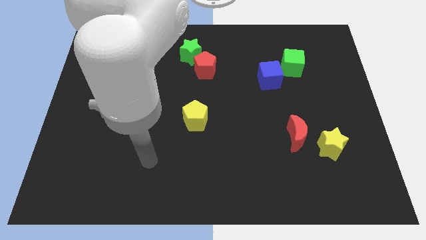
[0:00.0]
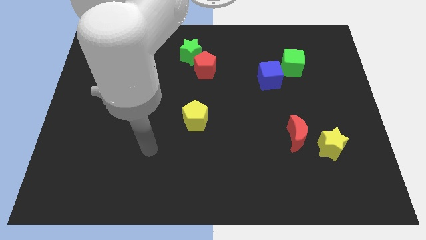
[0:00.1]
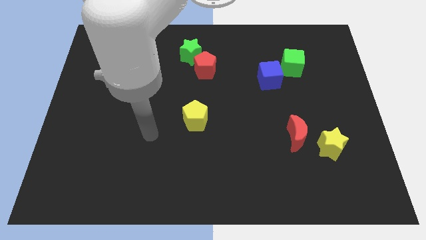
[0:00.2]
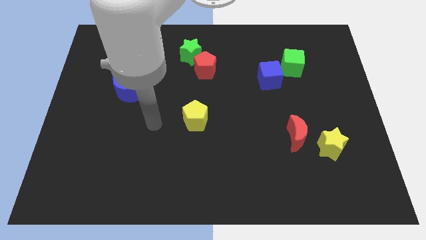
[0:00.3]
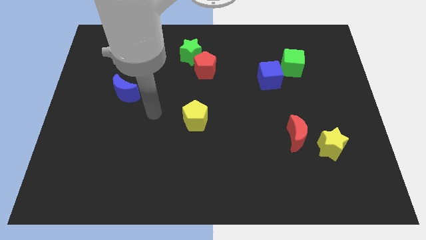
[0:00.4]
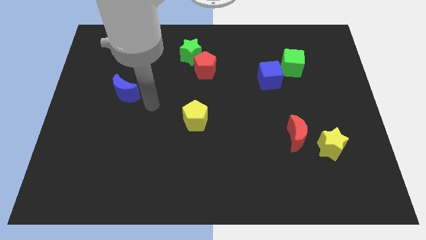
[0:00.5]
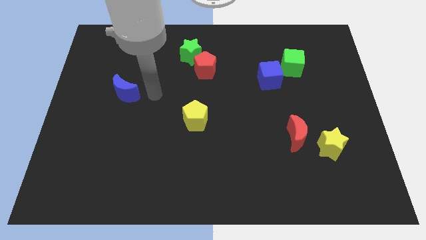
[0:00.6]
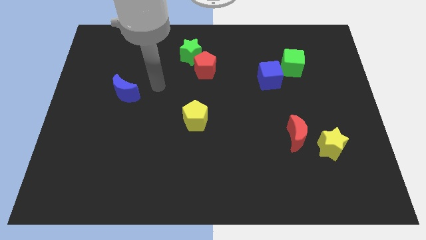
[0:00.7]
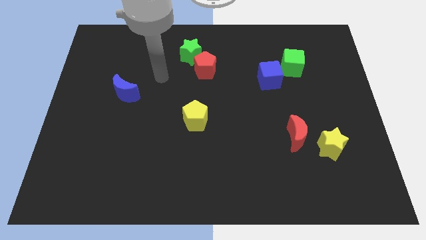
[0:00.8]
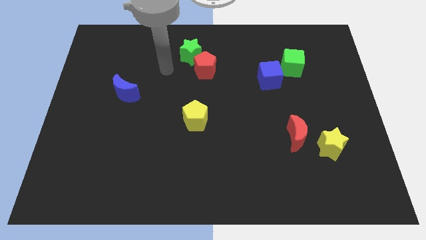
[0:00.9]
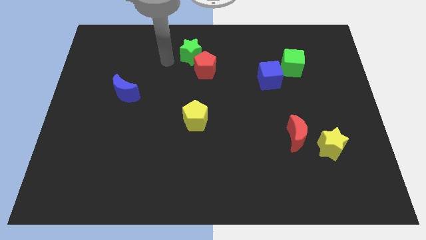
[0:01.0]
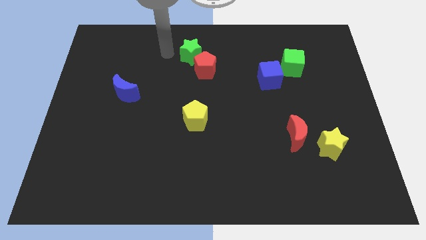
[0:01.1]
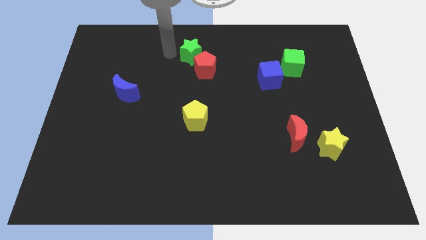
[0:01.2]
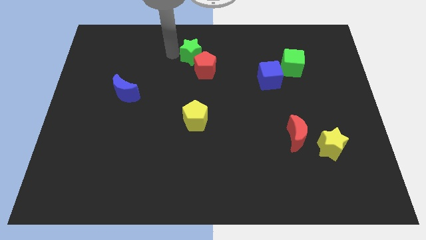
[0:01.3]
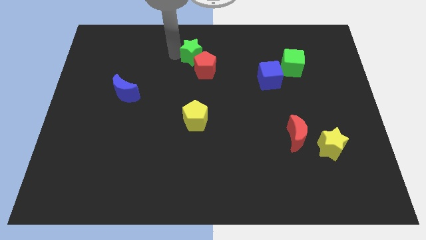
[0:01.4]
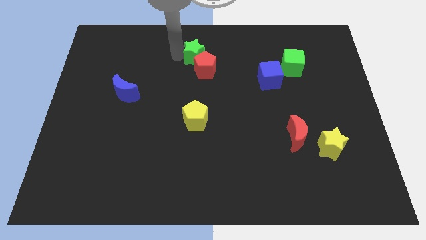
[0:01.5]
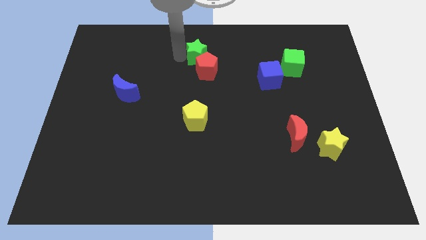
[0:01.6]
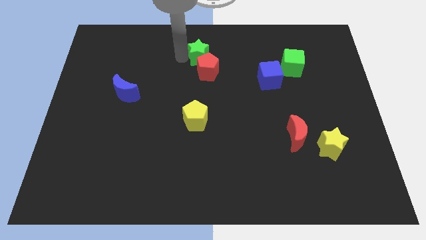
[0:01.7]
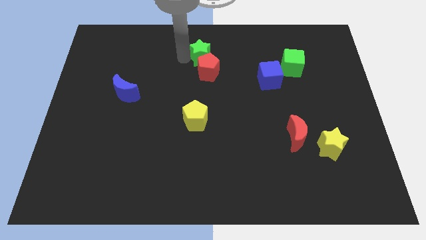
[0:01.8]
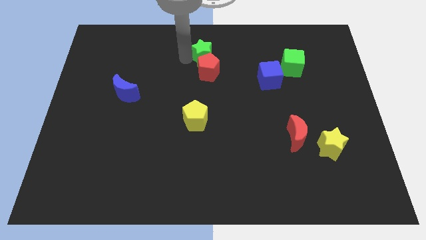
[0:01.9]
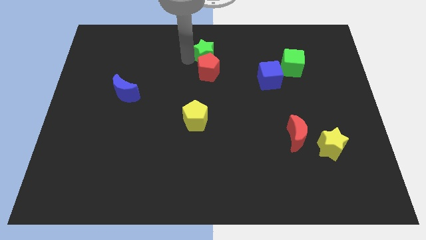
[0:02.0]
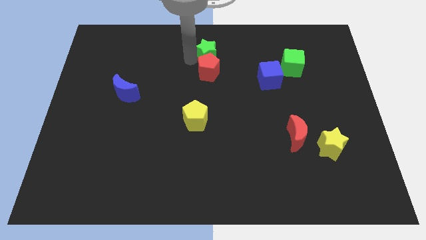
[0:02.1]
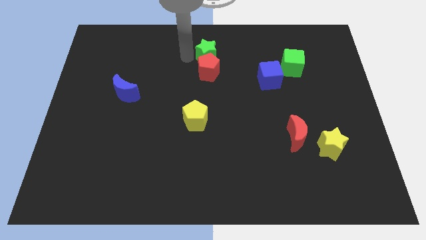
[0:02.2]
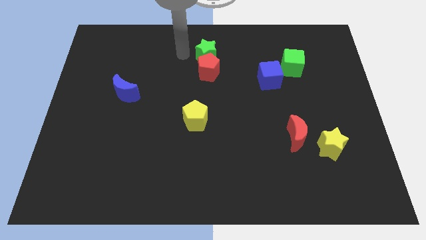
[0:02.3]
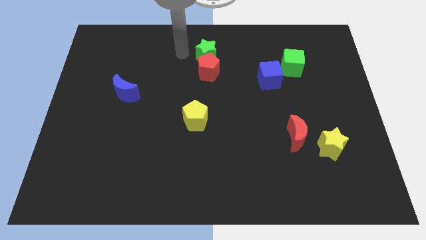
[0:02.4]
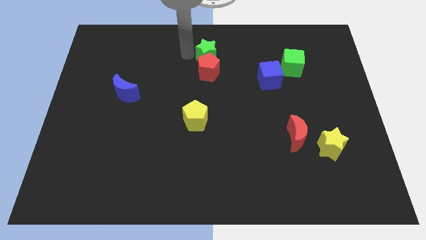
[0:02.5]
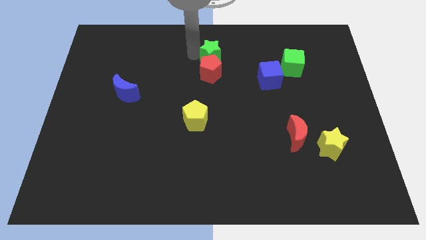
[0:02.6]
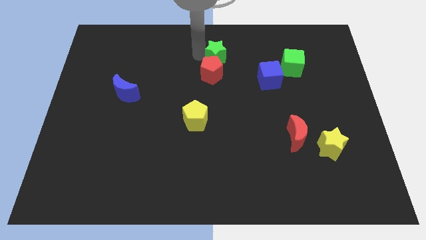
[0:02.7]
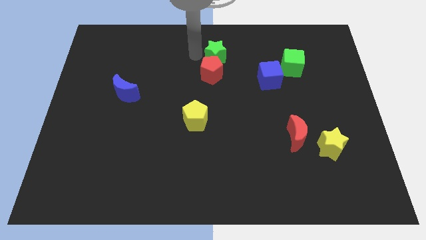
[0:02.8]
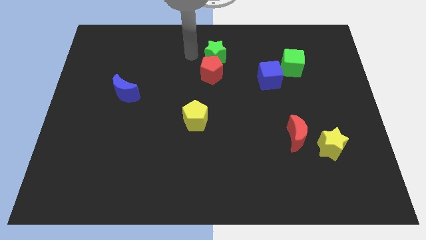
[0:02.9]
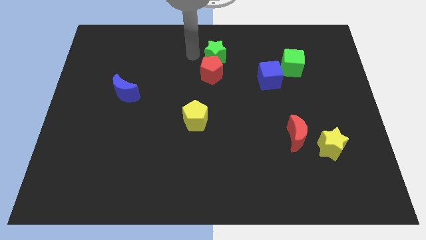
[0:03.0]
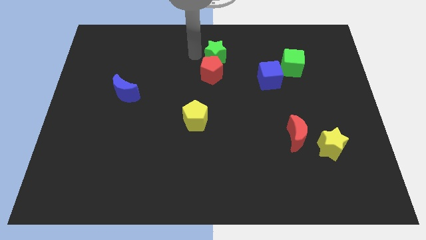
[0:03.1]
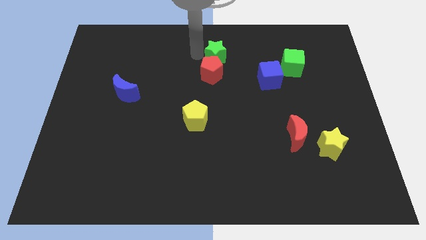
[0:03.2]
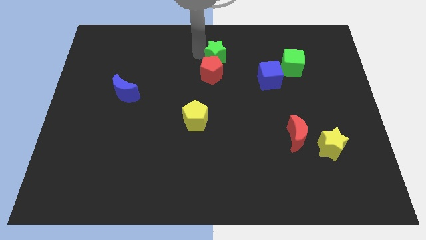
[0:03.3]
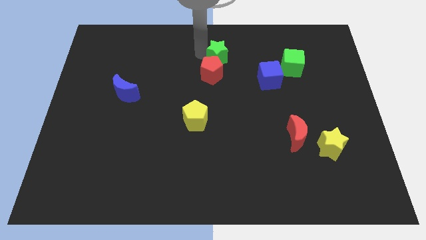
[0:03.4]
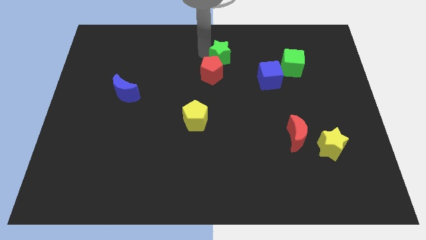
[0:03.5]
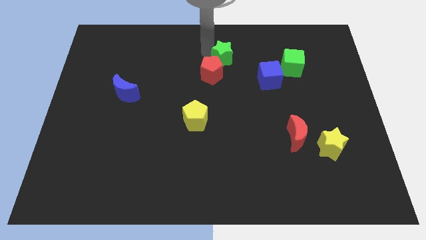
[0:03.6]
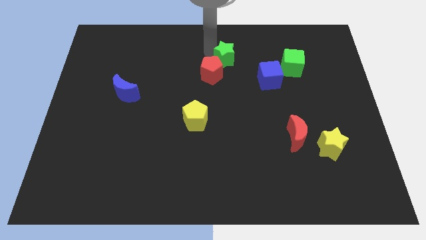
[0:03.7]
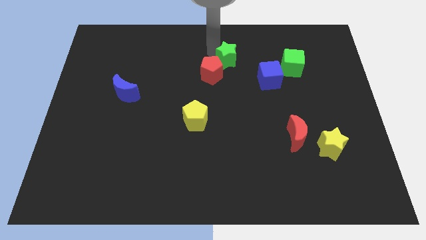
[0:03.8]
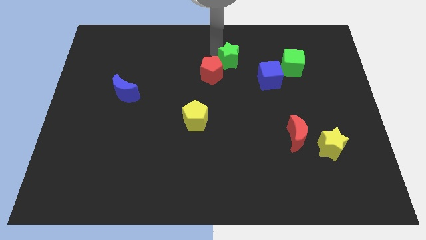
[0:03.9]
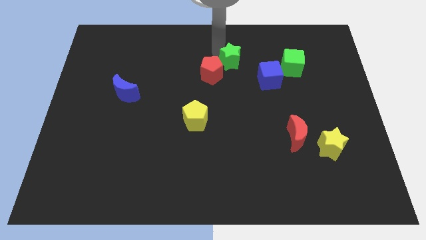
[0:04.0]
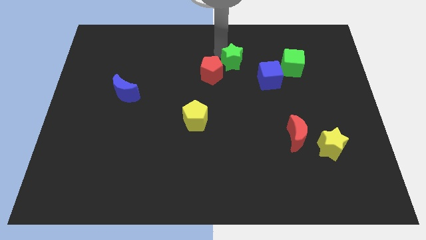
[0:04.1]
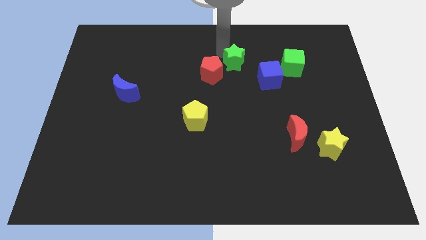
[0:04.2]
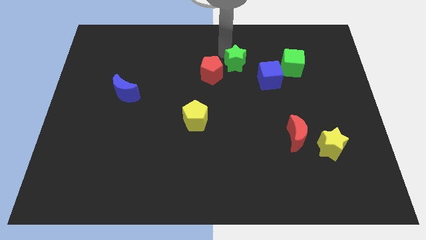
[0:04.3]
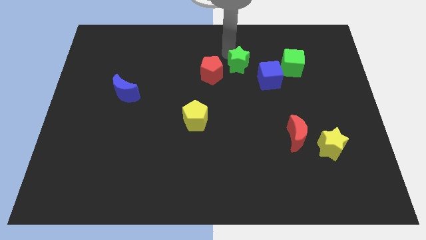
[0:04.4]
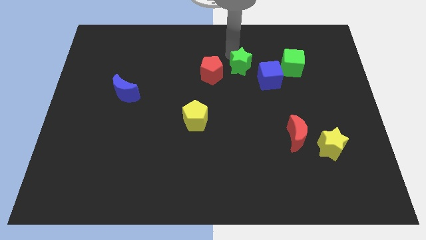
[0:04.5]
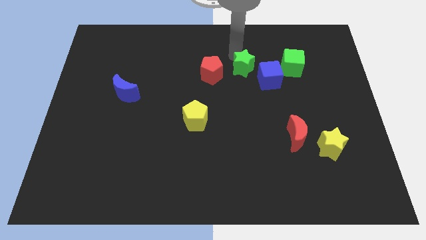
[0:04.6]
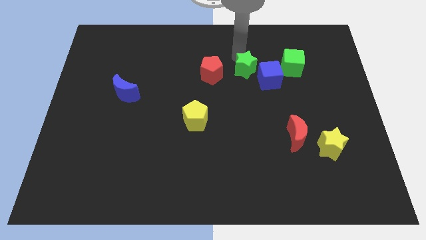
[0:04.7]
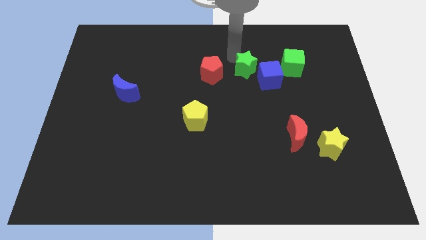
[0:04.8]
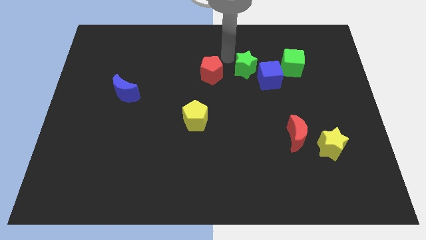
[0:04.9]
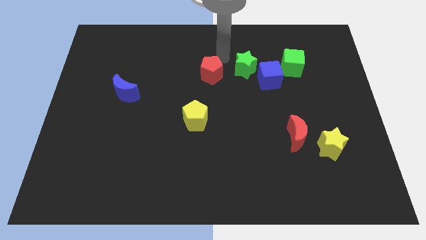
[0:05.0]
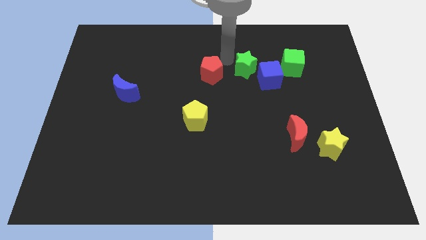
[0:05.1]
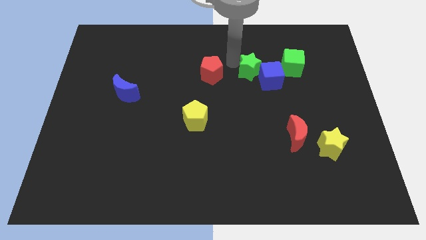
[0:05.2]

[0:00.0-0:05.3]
push the green star towards the blue cube

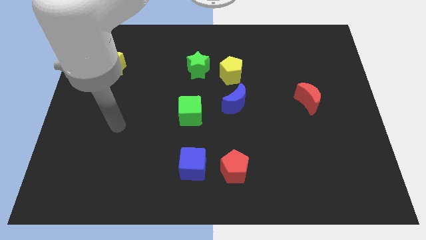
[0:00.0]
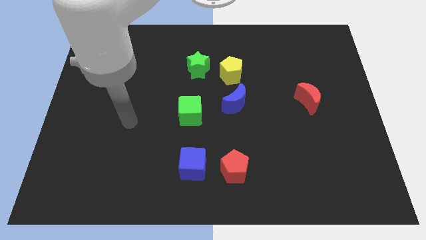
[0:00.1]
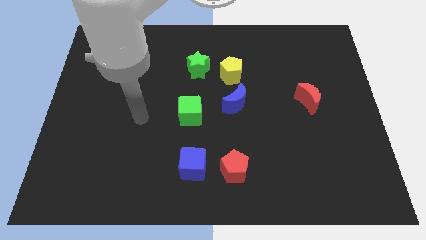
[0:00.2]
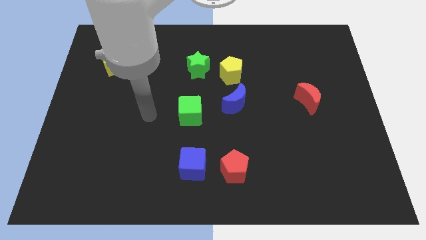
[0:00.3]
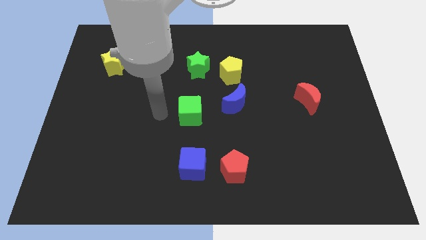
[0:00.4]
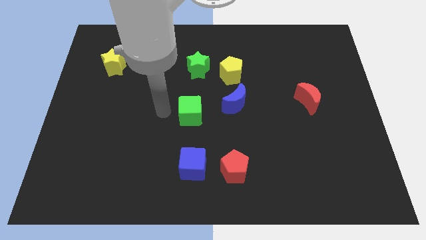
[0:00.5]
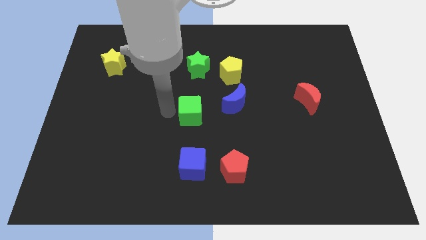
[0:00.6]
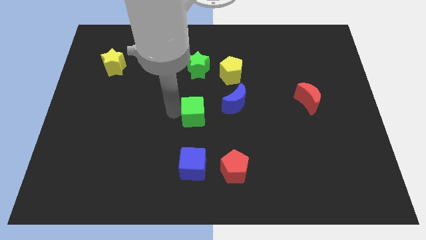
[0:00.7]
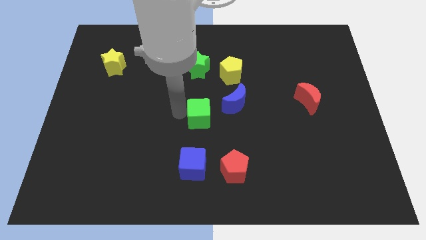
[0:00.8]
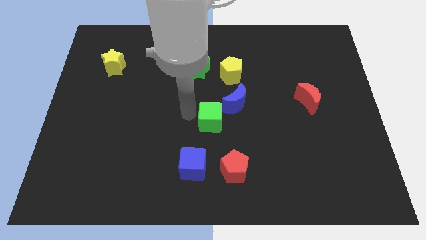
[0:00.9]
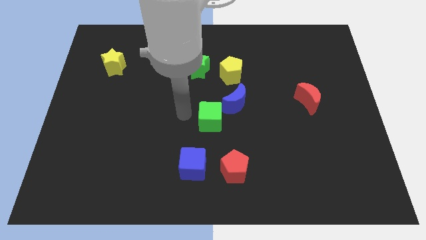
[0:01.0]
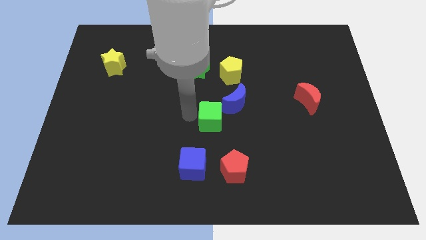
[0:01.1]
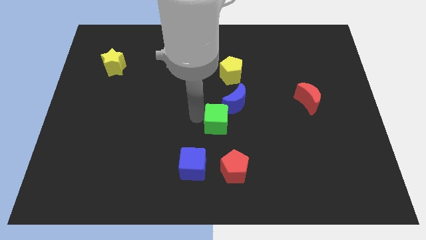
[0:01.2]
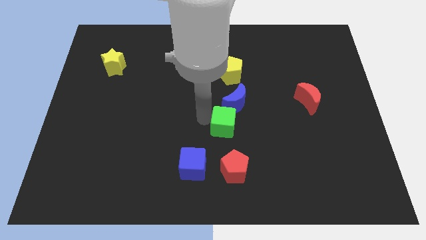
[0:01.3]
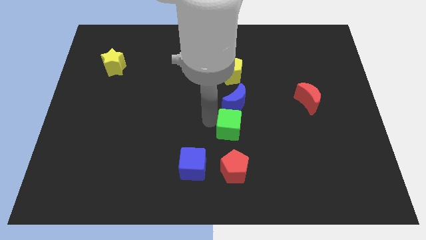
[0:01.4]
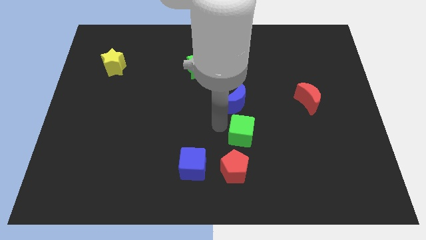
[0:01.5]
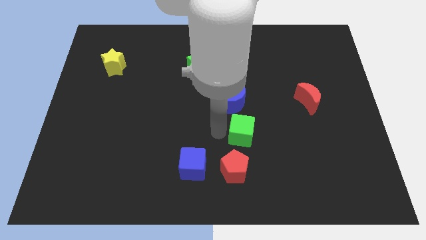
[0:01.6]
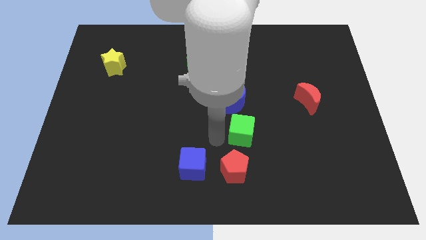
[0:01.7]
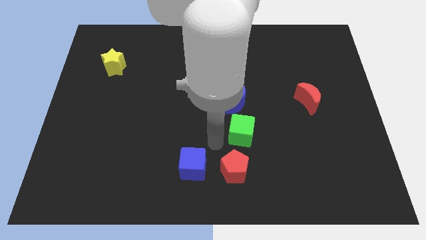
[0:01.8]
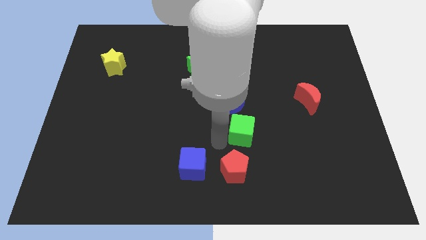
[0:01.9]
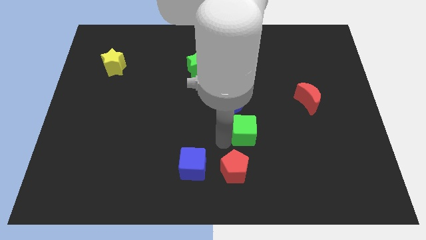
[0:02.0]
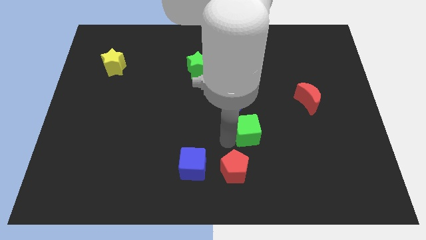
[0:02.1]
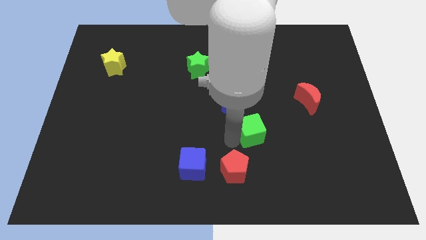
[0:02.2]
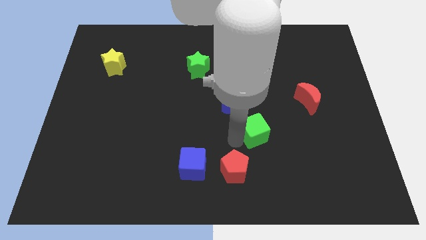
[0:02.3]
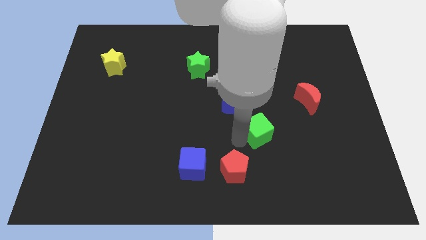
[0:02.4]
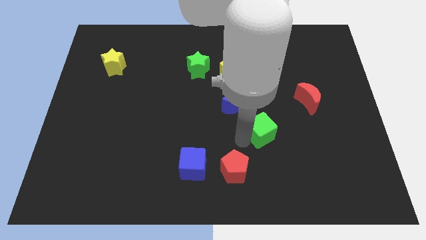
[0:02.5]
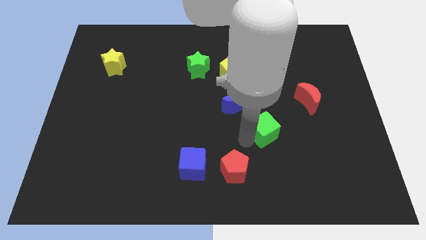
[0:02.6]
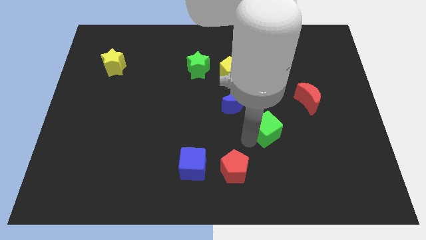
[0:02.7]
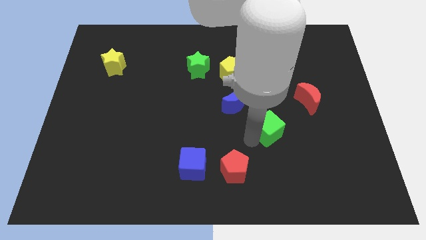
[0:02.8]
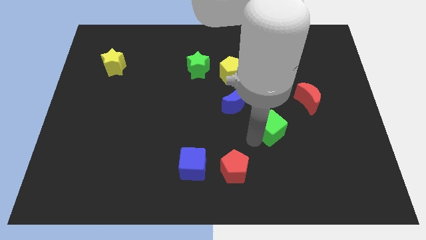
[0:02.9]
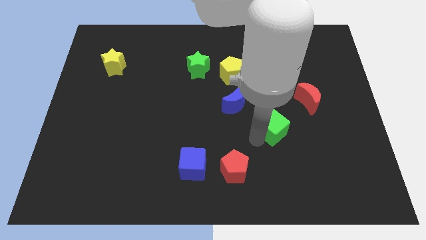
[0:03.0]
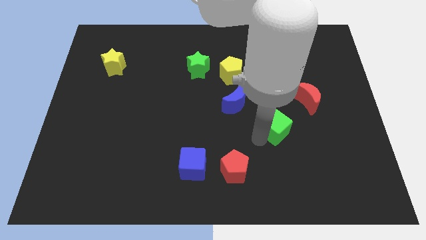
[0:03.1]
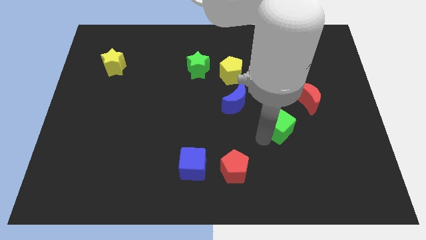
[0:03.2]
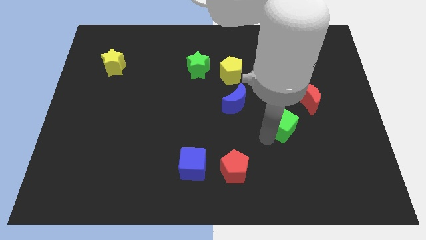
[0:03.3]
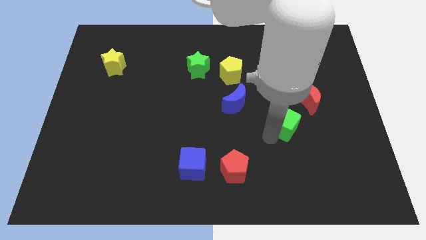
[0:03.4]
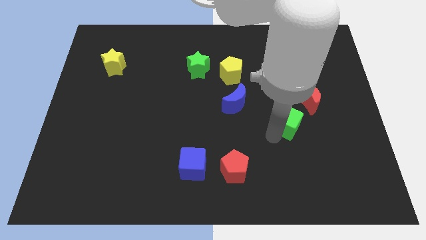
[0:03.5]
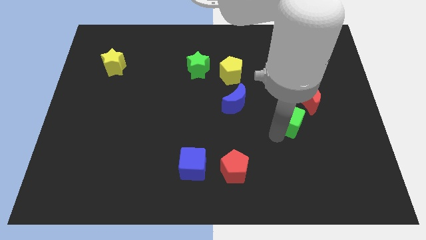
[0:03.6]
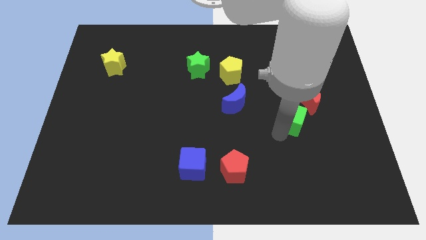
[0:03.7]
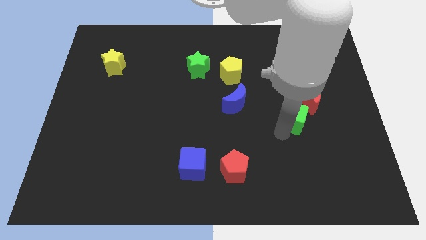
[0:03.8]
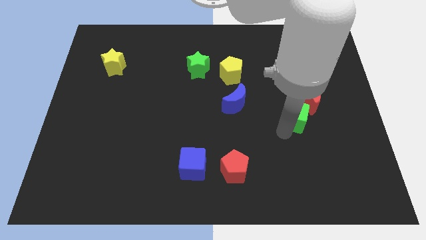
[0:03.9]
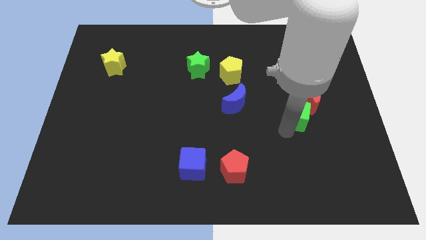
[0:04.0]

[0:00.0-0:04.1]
move the green cube close to the red moon
